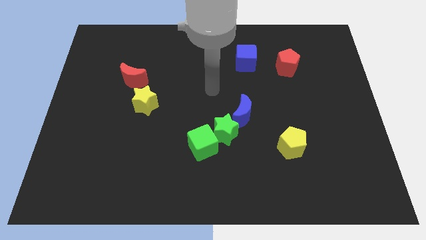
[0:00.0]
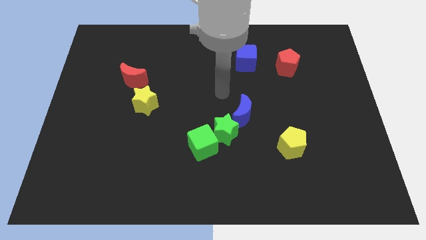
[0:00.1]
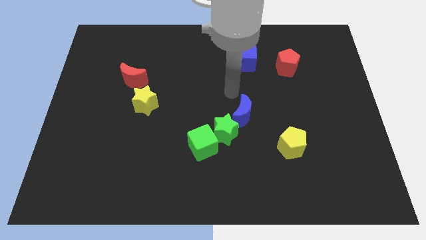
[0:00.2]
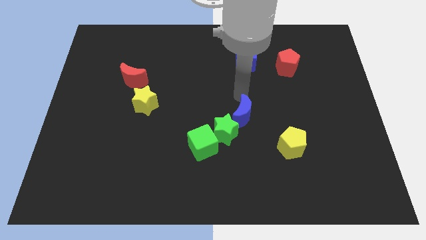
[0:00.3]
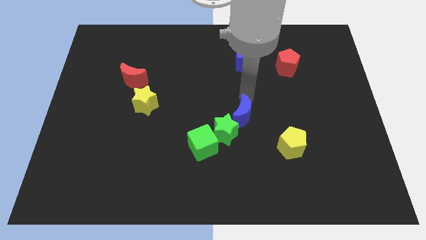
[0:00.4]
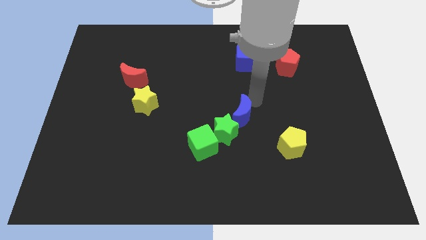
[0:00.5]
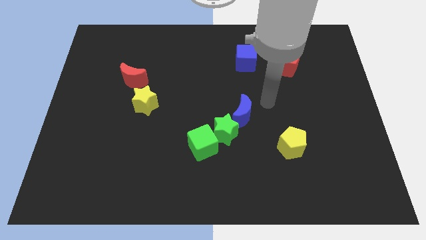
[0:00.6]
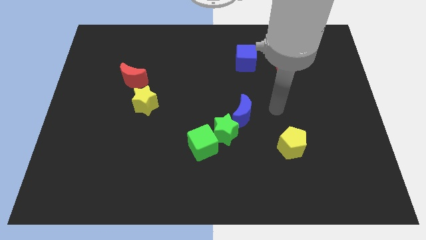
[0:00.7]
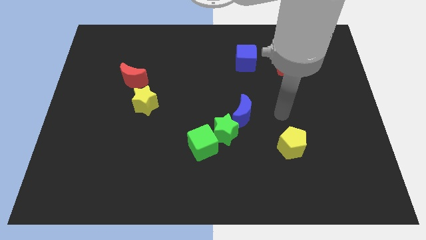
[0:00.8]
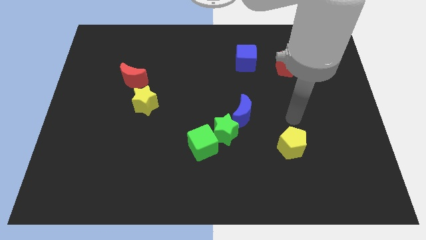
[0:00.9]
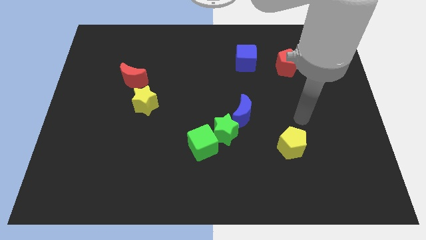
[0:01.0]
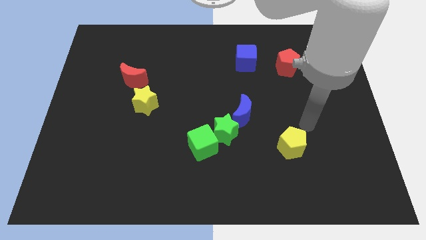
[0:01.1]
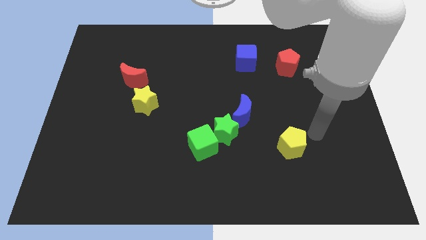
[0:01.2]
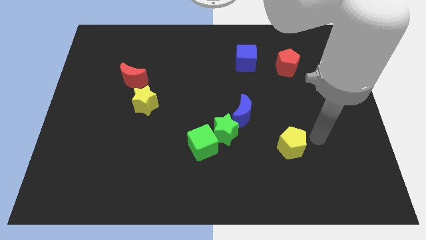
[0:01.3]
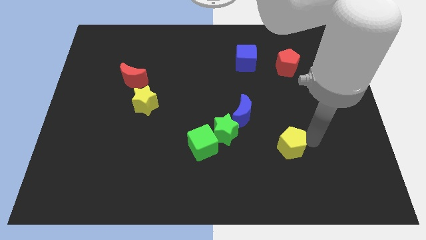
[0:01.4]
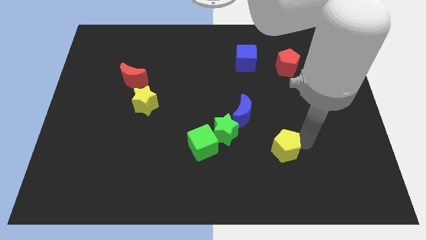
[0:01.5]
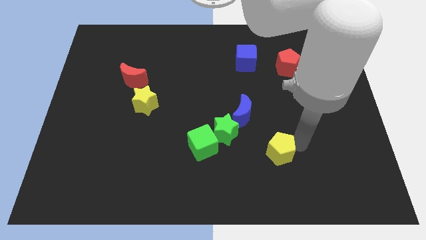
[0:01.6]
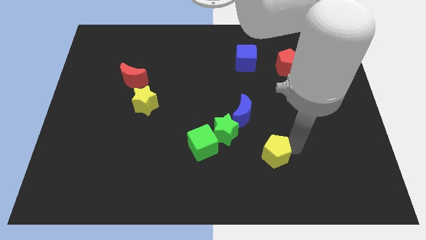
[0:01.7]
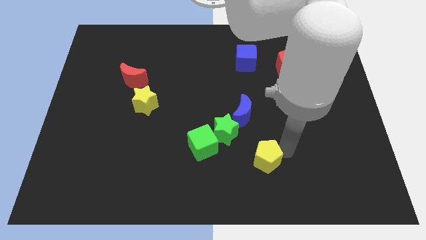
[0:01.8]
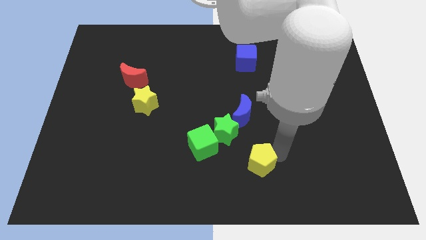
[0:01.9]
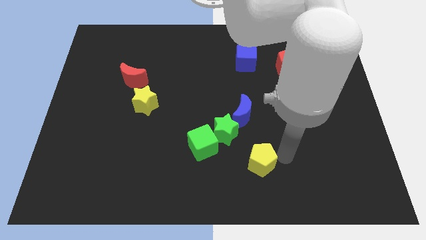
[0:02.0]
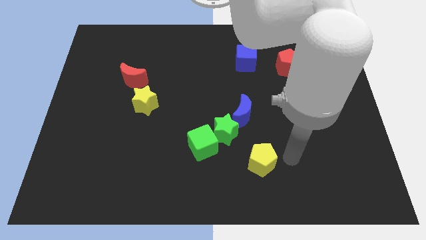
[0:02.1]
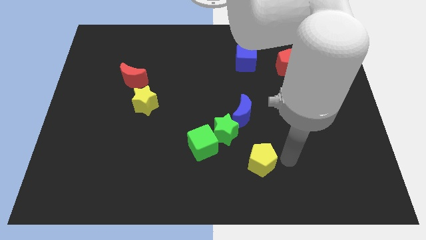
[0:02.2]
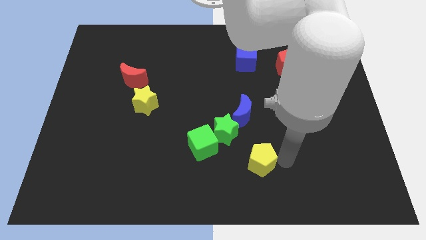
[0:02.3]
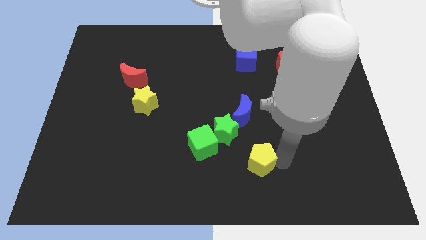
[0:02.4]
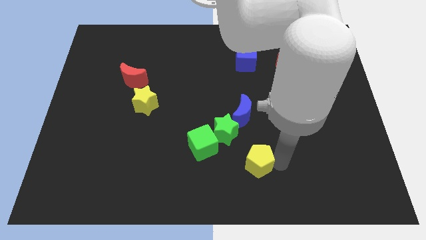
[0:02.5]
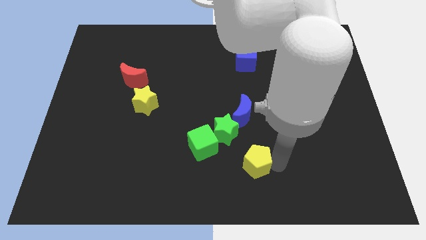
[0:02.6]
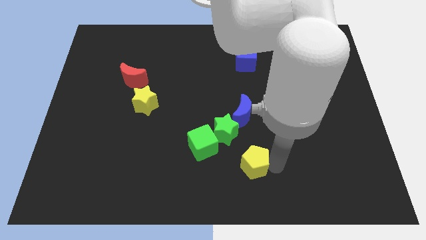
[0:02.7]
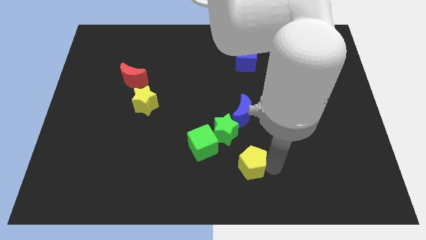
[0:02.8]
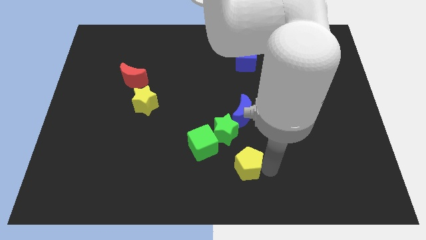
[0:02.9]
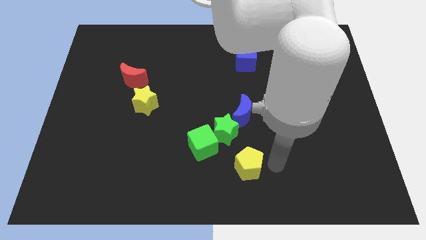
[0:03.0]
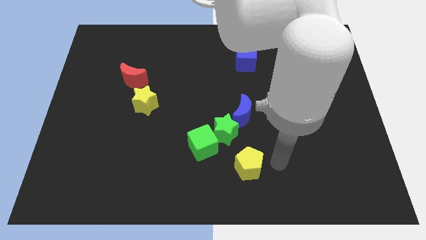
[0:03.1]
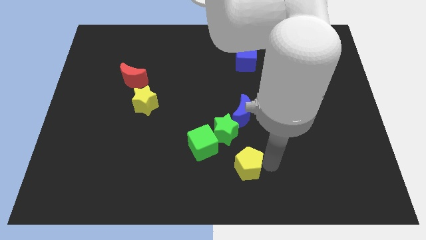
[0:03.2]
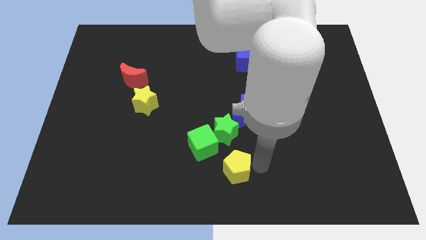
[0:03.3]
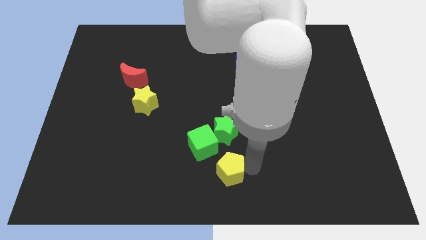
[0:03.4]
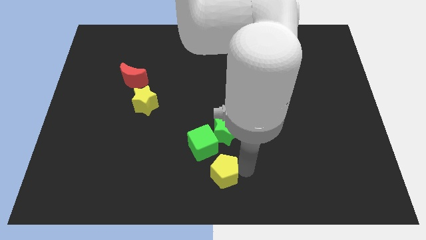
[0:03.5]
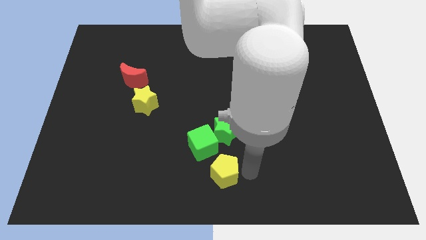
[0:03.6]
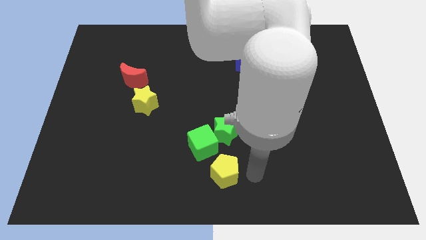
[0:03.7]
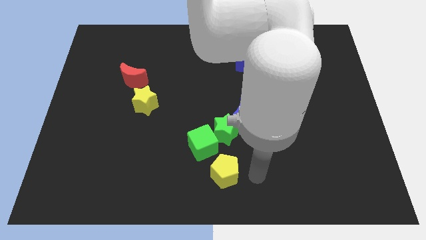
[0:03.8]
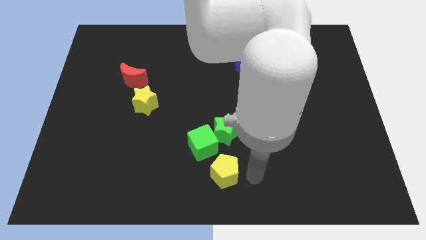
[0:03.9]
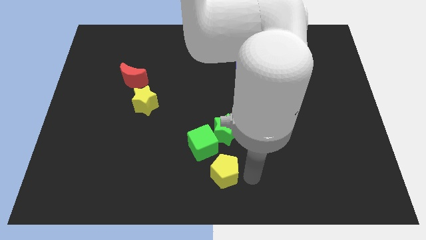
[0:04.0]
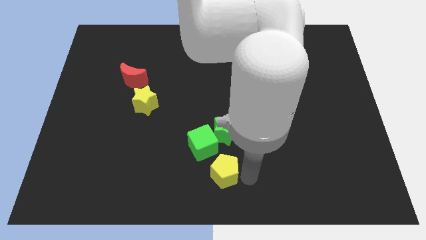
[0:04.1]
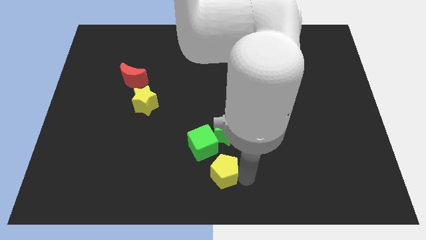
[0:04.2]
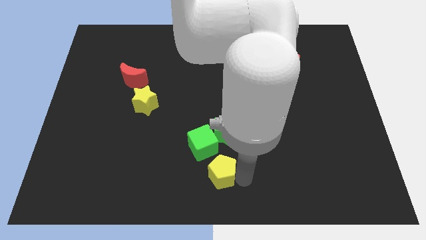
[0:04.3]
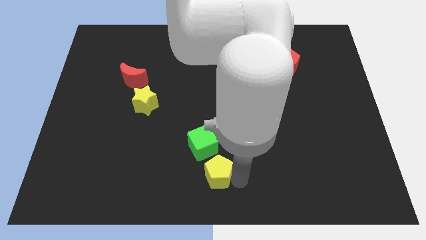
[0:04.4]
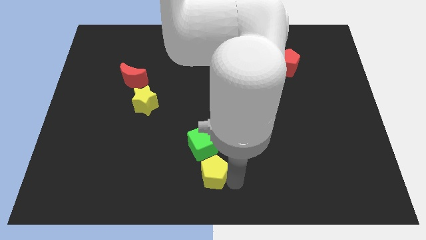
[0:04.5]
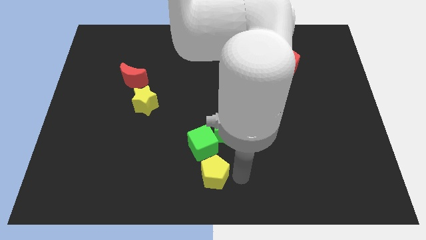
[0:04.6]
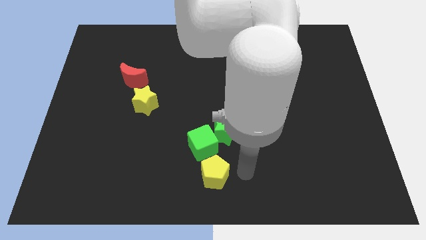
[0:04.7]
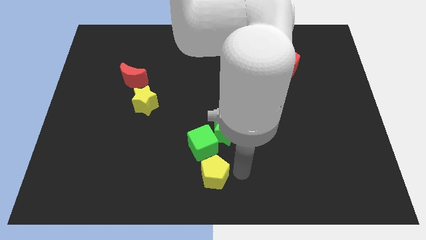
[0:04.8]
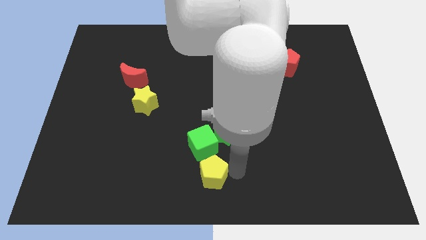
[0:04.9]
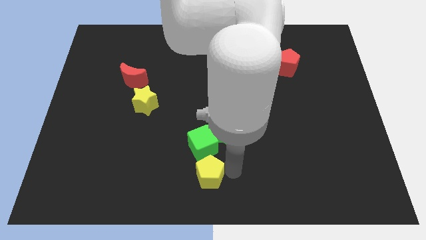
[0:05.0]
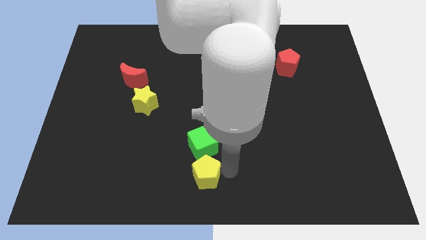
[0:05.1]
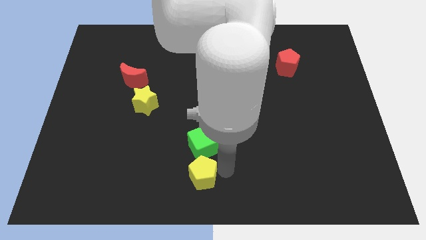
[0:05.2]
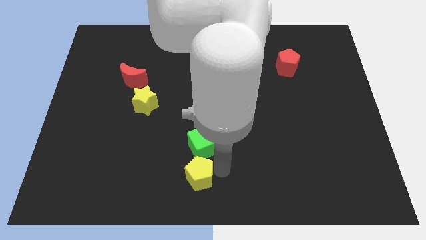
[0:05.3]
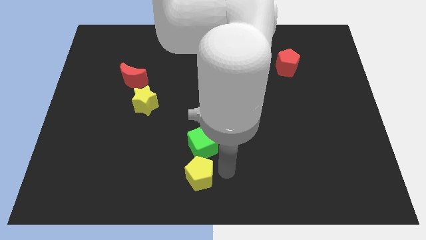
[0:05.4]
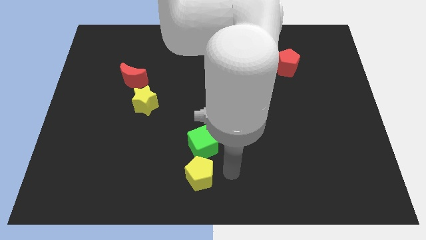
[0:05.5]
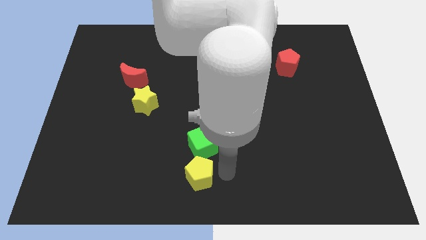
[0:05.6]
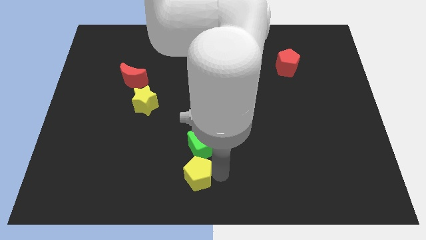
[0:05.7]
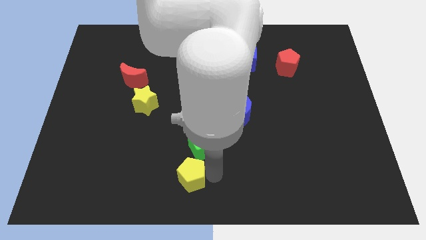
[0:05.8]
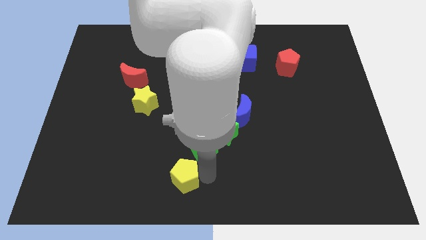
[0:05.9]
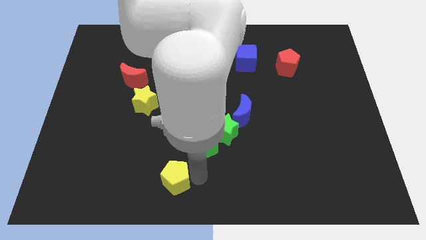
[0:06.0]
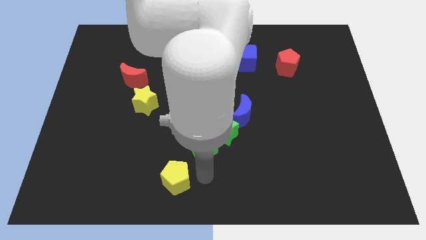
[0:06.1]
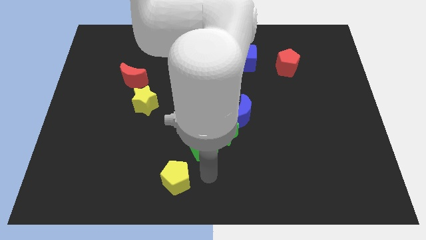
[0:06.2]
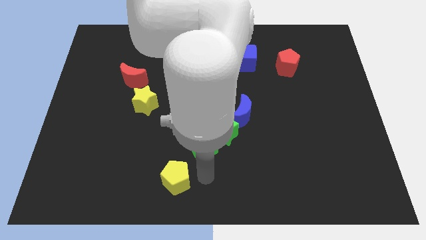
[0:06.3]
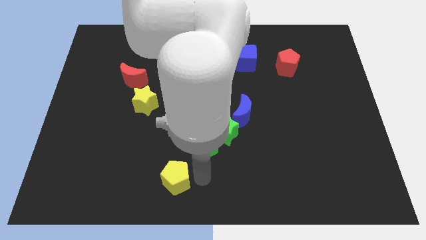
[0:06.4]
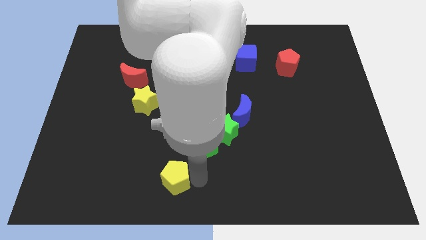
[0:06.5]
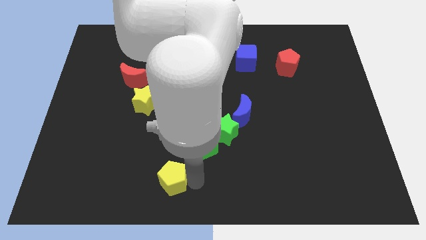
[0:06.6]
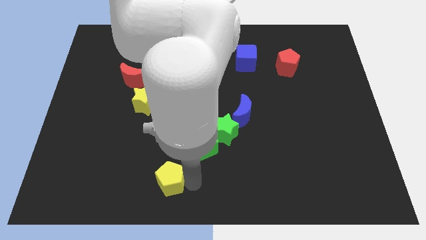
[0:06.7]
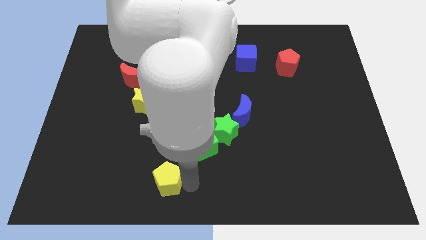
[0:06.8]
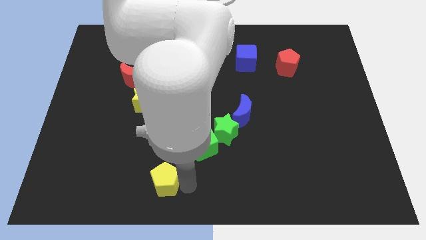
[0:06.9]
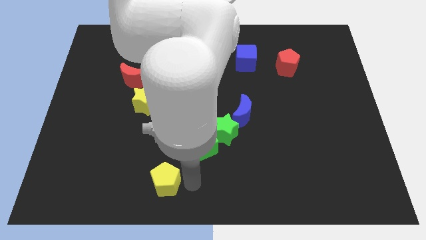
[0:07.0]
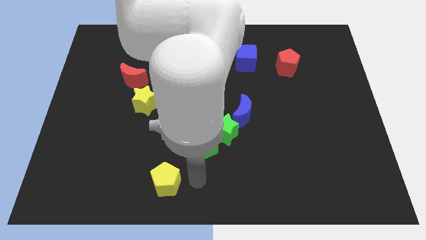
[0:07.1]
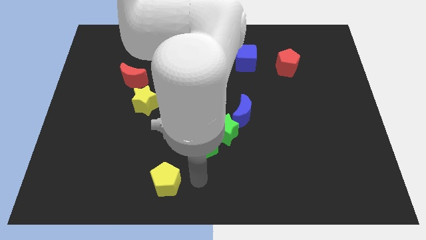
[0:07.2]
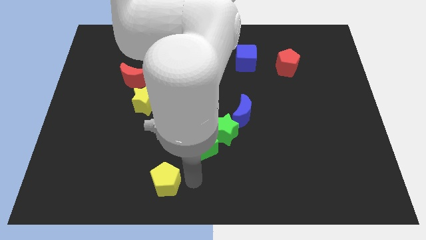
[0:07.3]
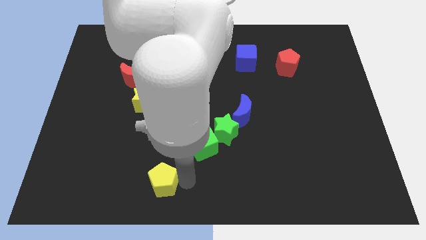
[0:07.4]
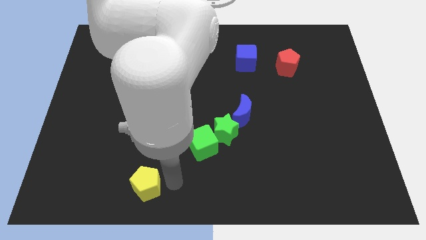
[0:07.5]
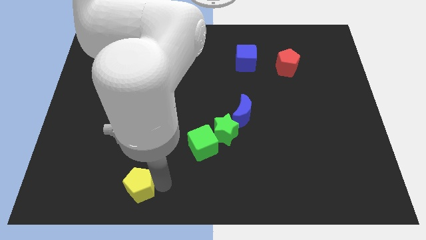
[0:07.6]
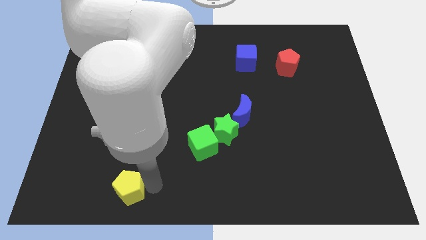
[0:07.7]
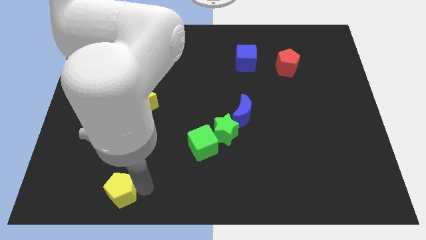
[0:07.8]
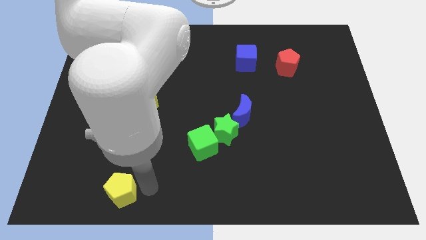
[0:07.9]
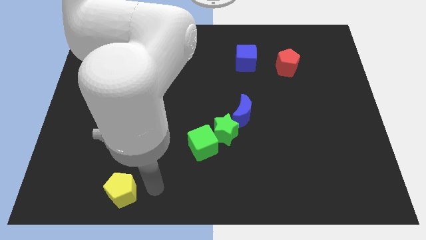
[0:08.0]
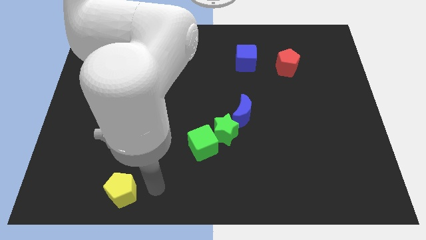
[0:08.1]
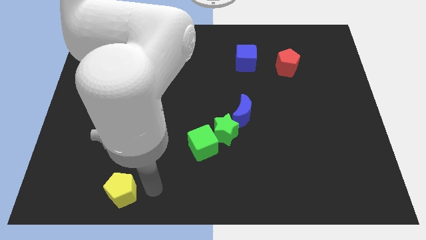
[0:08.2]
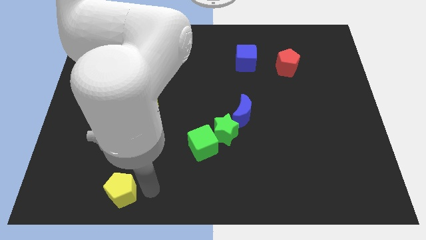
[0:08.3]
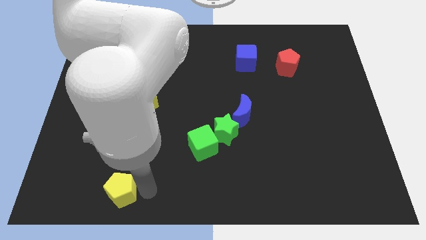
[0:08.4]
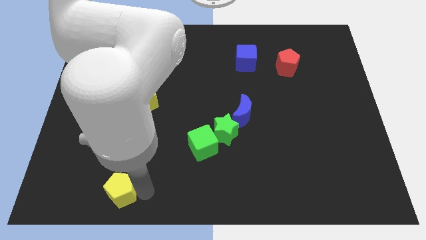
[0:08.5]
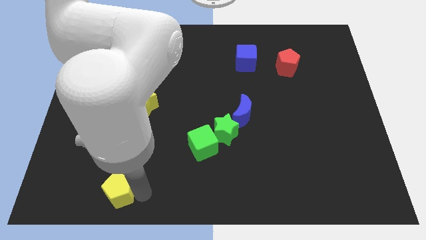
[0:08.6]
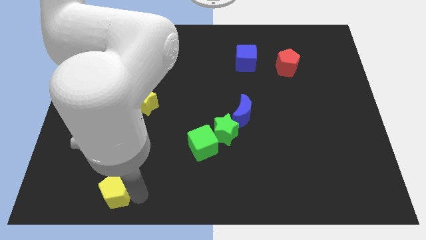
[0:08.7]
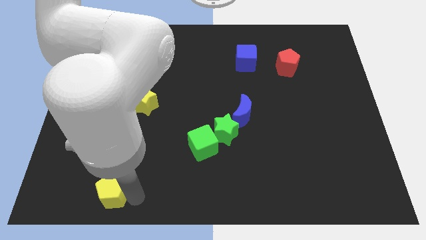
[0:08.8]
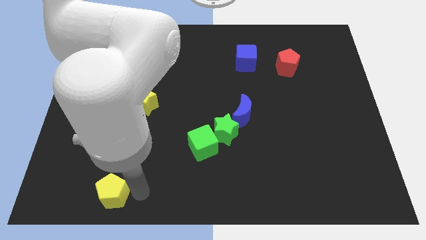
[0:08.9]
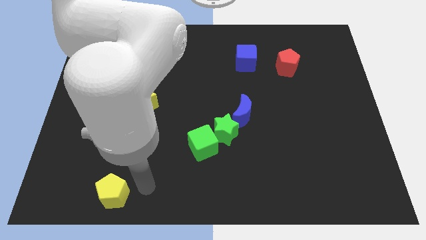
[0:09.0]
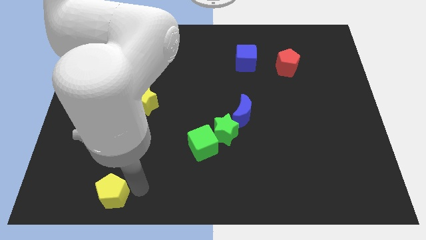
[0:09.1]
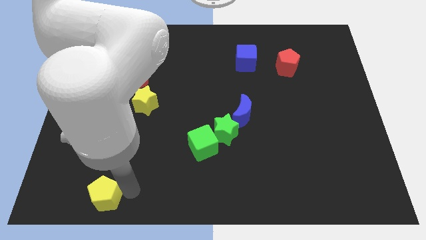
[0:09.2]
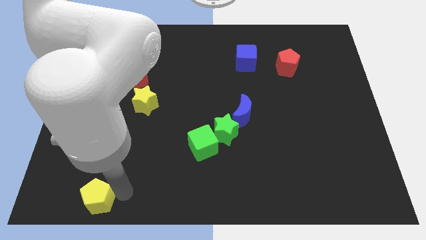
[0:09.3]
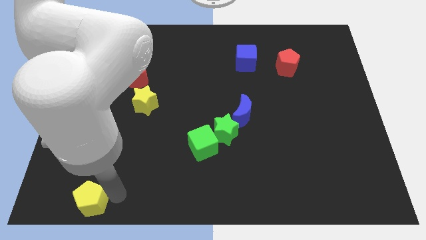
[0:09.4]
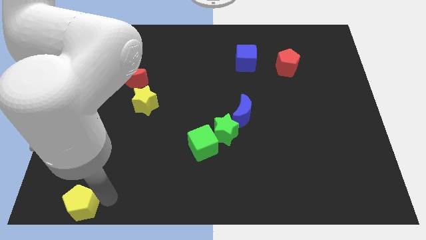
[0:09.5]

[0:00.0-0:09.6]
slide the yellow pentagon to the bottom left of the board
